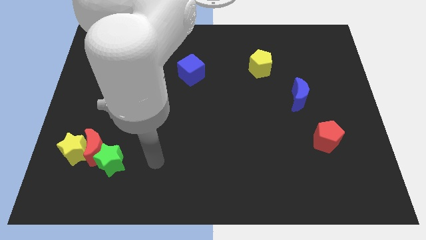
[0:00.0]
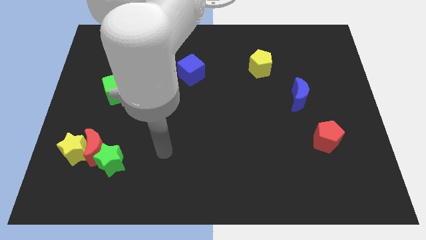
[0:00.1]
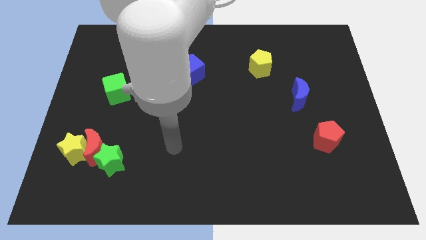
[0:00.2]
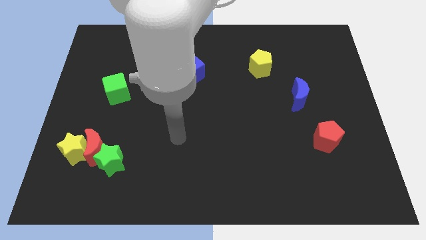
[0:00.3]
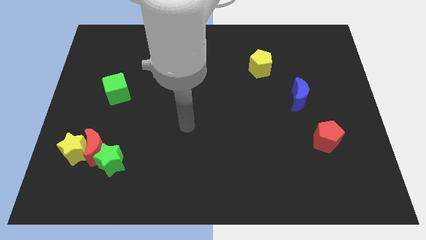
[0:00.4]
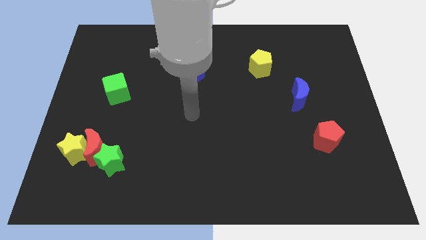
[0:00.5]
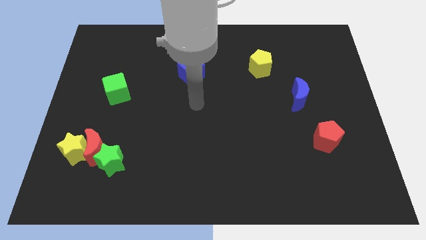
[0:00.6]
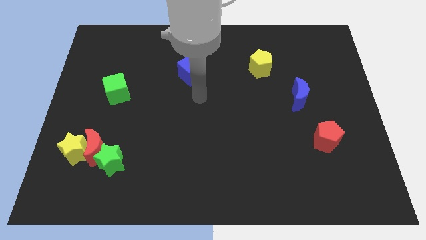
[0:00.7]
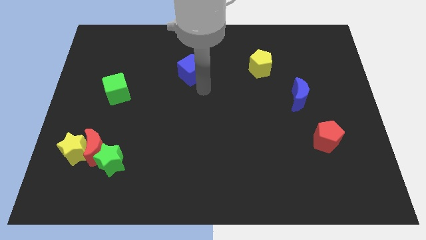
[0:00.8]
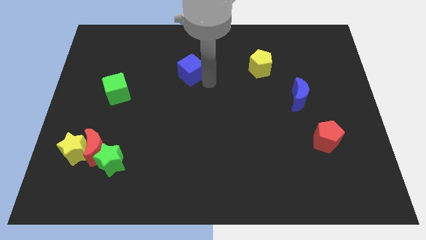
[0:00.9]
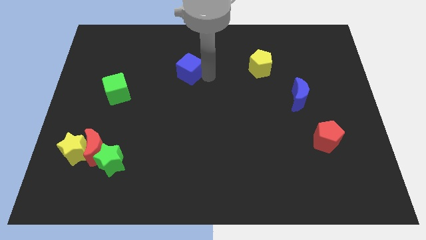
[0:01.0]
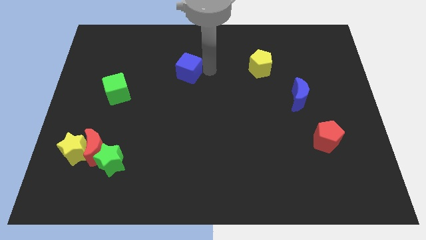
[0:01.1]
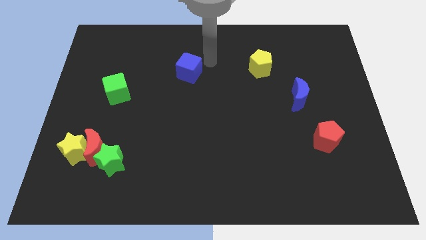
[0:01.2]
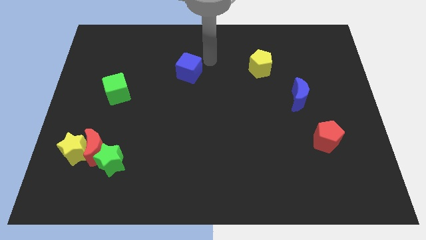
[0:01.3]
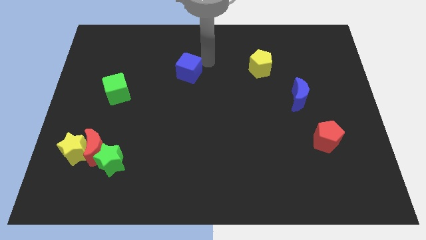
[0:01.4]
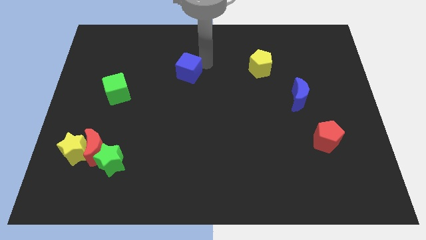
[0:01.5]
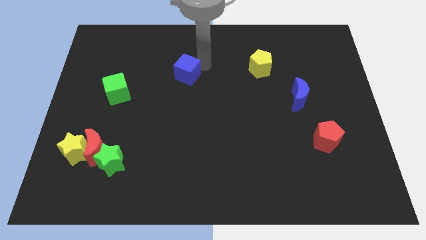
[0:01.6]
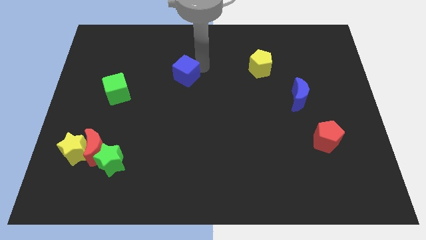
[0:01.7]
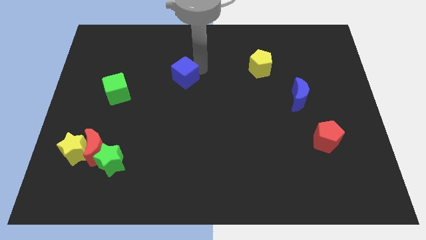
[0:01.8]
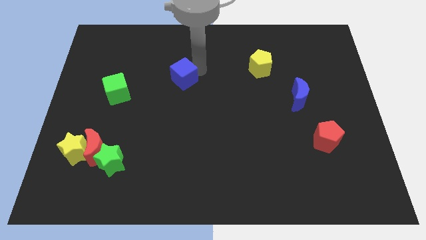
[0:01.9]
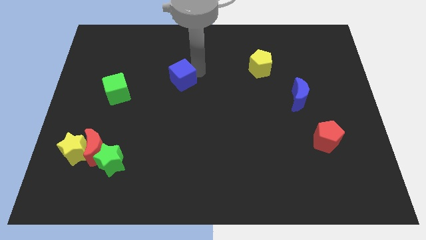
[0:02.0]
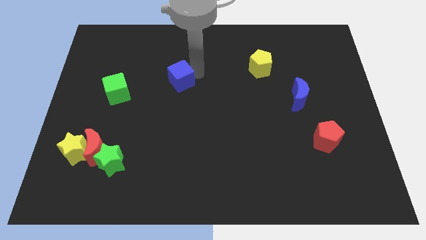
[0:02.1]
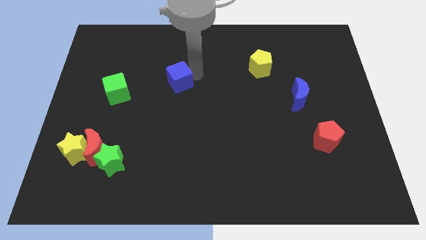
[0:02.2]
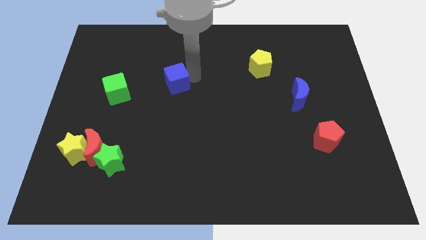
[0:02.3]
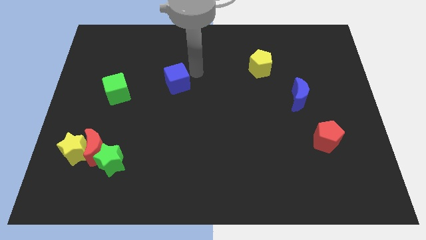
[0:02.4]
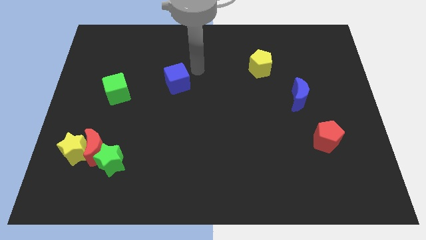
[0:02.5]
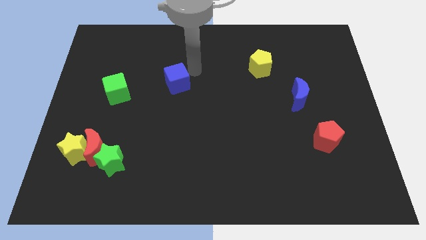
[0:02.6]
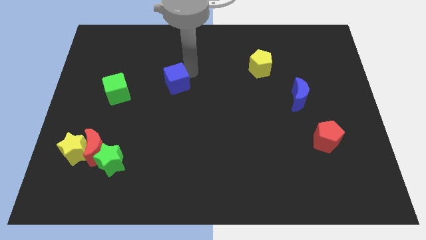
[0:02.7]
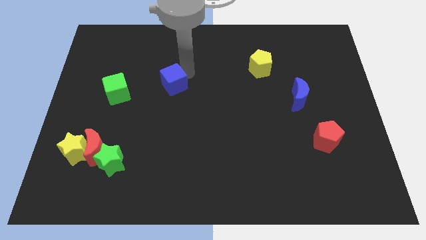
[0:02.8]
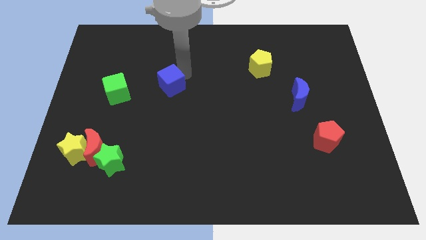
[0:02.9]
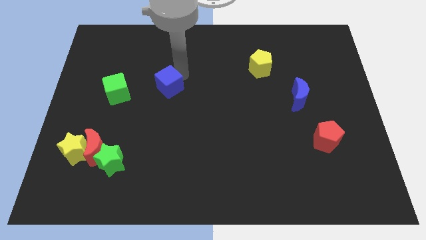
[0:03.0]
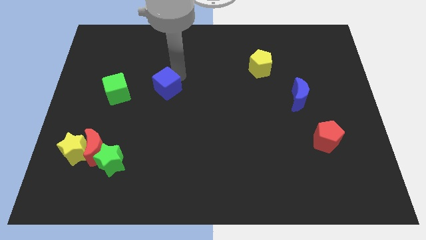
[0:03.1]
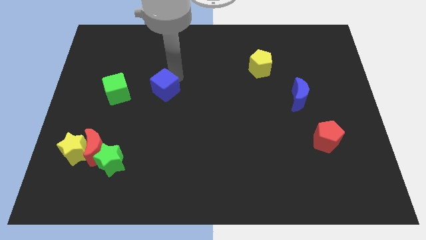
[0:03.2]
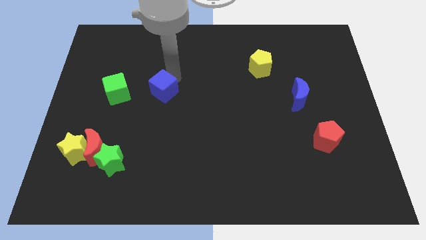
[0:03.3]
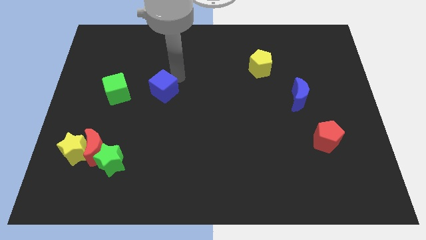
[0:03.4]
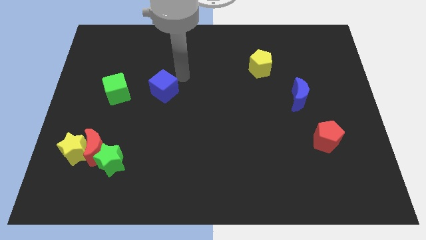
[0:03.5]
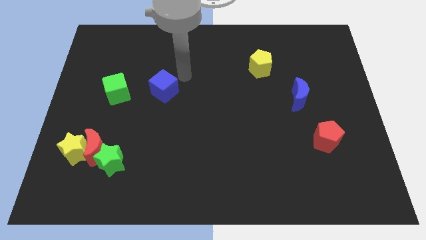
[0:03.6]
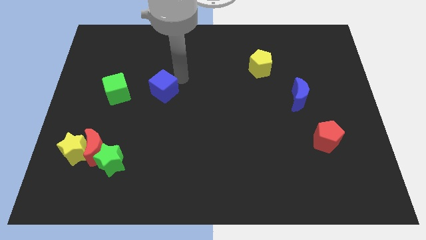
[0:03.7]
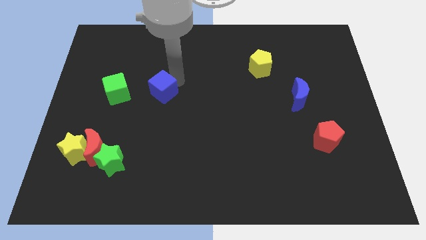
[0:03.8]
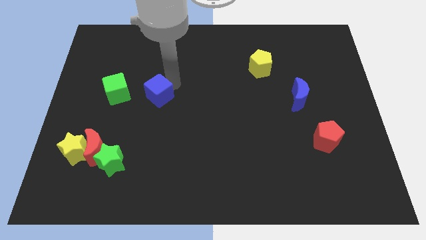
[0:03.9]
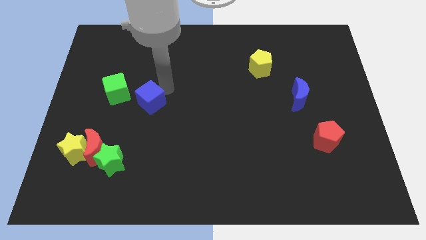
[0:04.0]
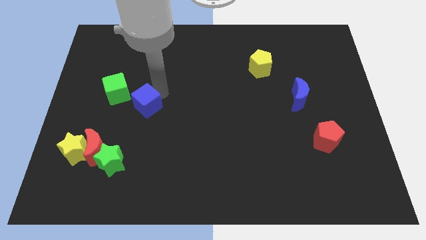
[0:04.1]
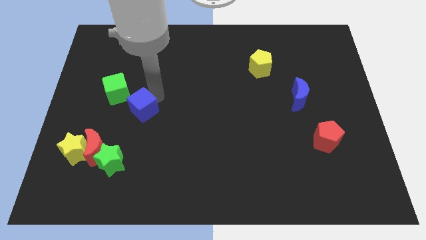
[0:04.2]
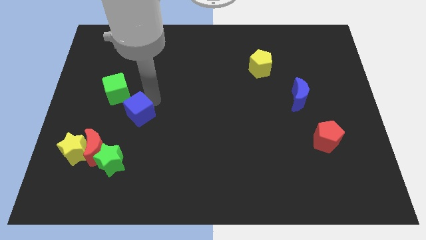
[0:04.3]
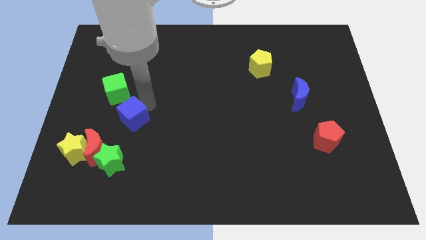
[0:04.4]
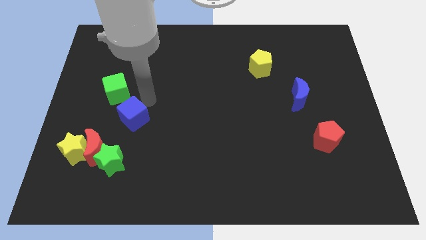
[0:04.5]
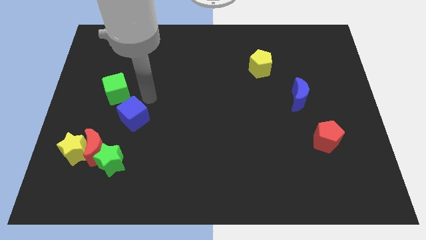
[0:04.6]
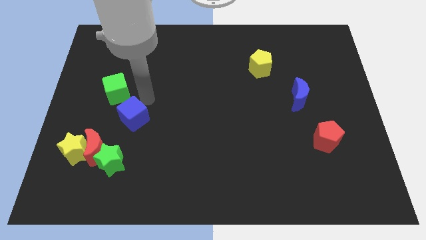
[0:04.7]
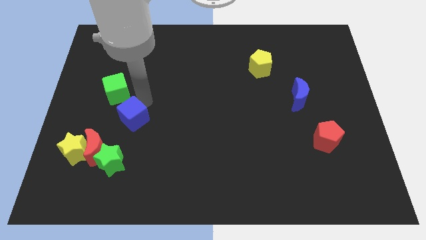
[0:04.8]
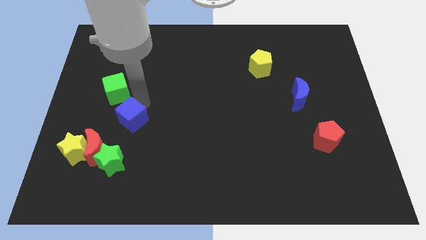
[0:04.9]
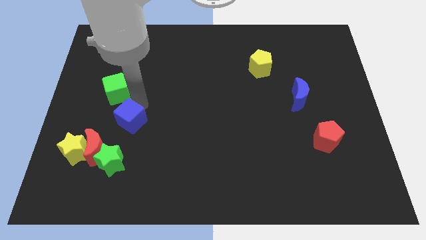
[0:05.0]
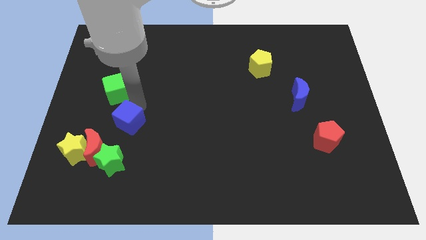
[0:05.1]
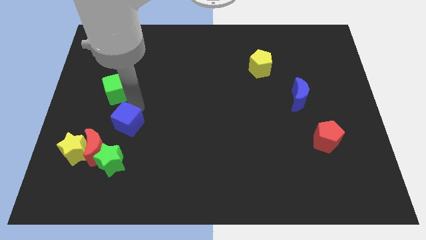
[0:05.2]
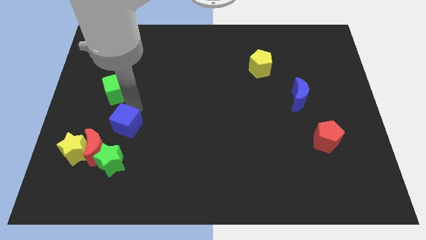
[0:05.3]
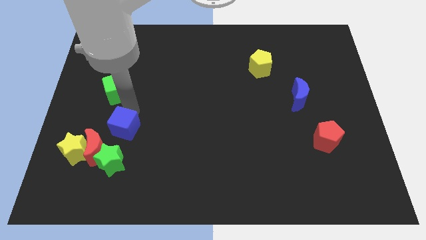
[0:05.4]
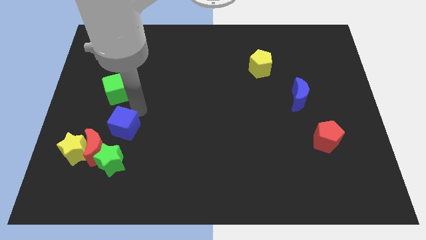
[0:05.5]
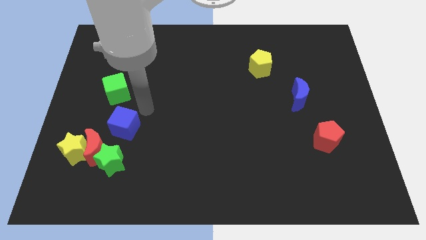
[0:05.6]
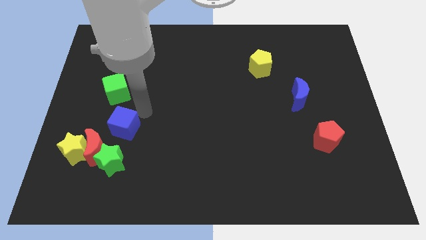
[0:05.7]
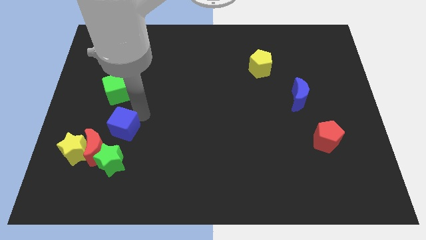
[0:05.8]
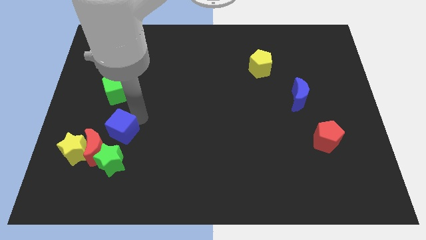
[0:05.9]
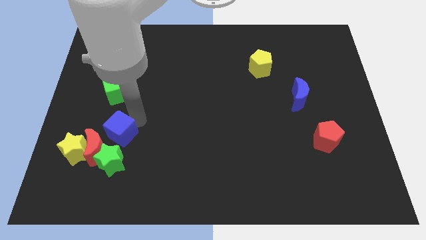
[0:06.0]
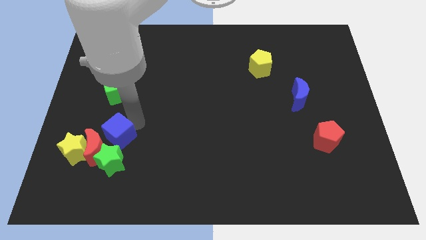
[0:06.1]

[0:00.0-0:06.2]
move the blue cube towards the red moon

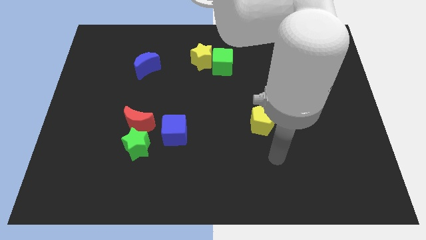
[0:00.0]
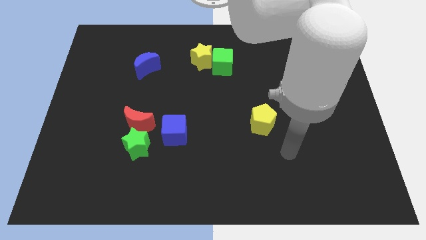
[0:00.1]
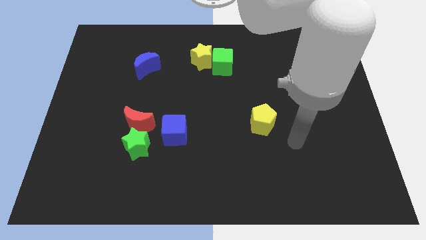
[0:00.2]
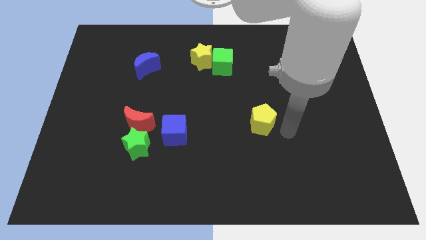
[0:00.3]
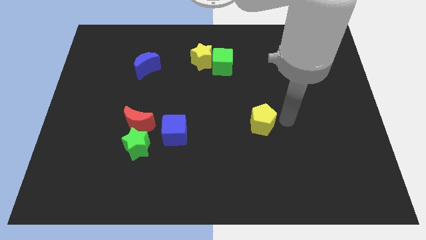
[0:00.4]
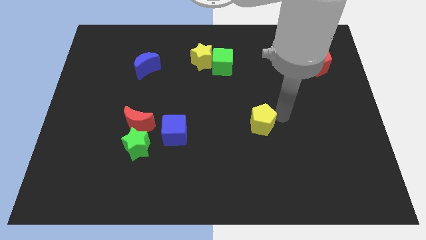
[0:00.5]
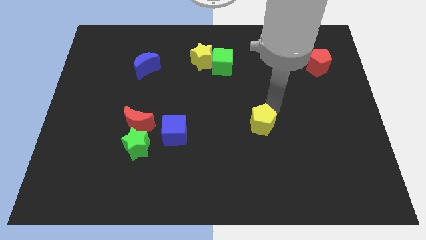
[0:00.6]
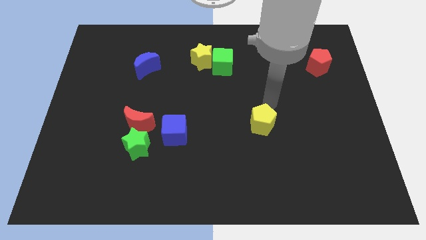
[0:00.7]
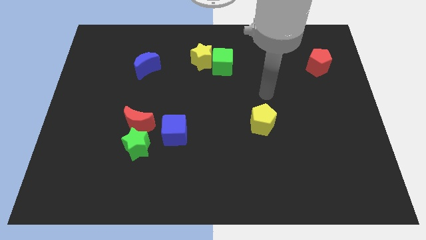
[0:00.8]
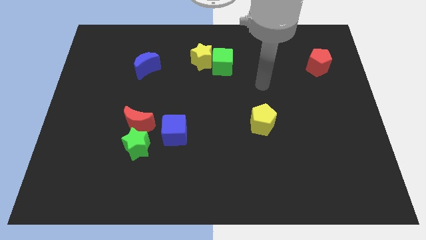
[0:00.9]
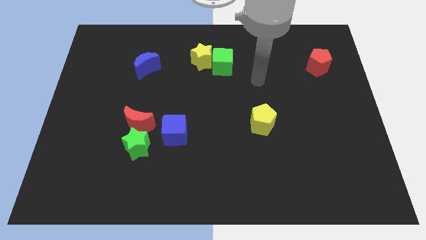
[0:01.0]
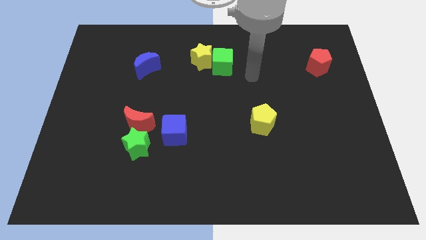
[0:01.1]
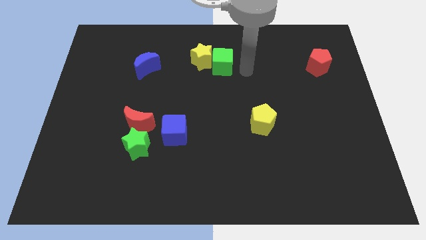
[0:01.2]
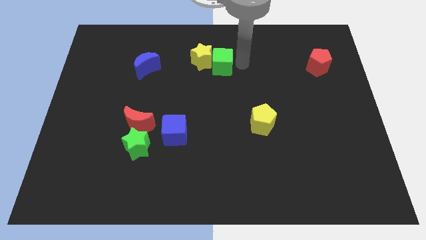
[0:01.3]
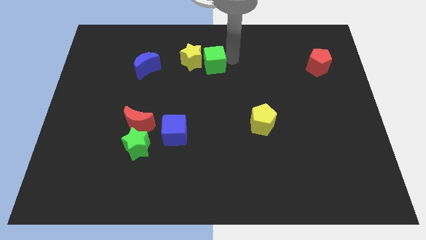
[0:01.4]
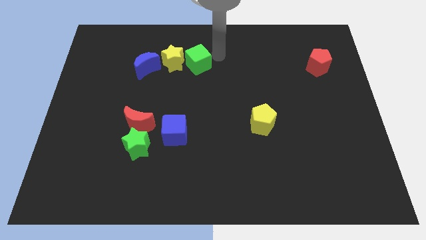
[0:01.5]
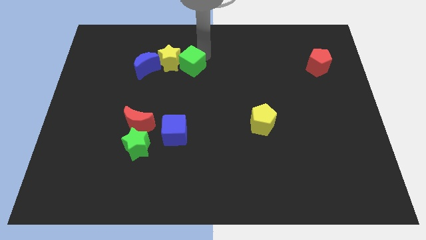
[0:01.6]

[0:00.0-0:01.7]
put the yellow star close to the blue moon
